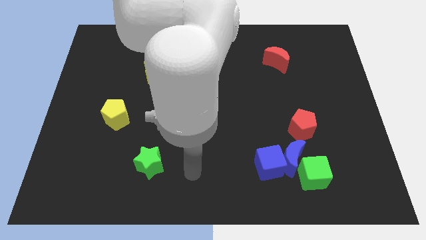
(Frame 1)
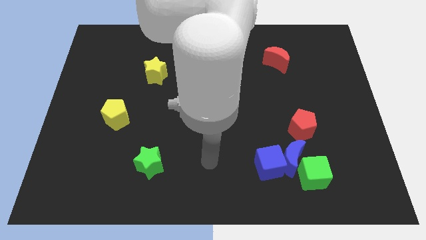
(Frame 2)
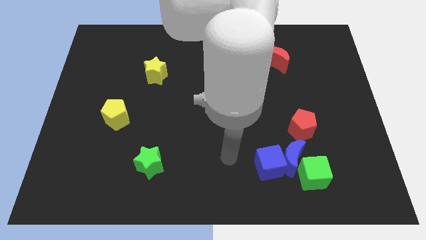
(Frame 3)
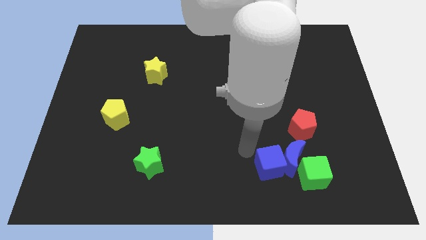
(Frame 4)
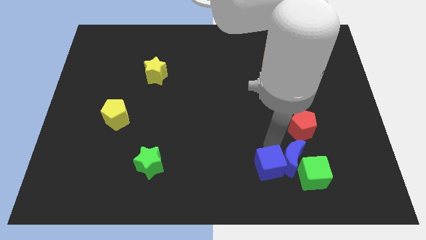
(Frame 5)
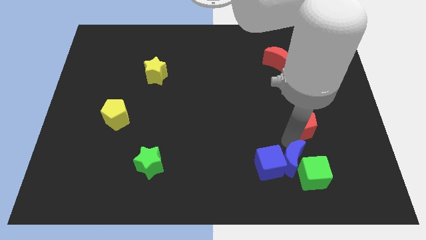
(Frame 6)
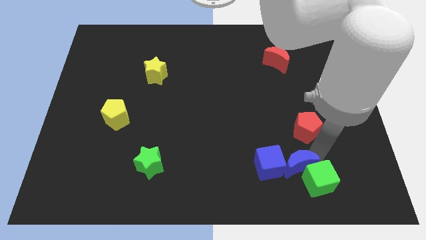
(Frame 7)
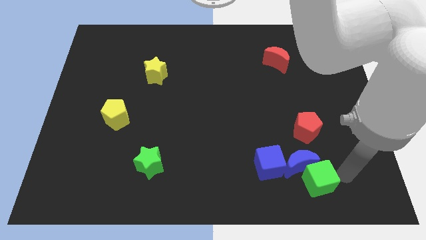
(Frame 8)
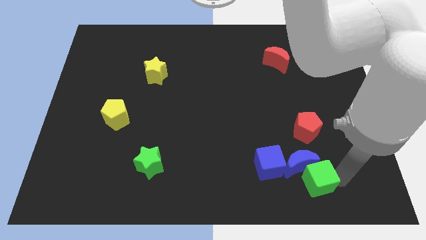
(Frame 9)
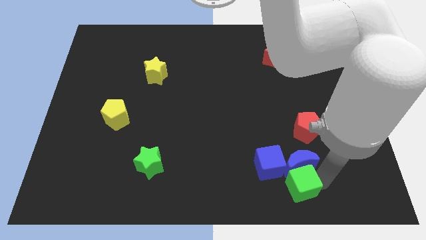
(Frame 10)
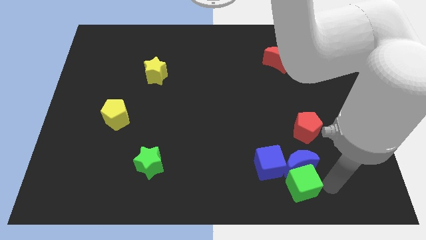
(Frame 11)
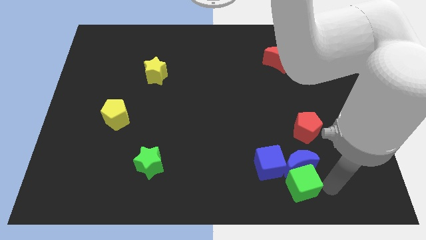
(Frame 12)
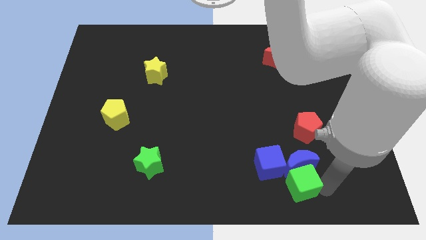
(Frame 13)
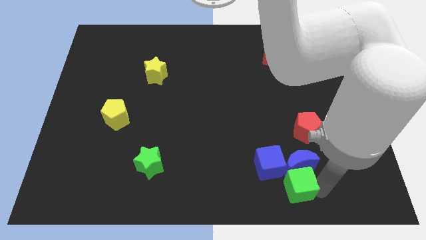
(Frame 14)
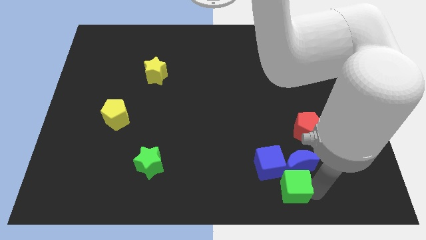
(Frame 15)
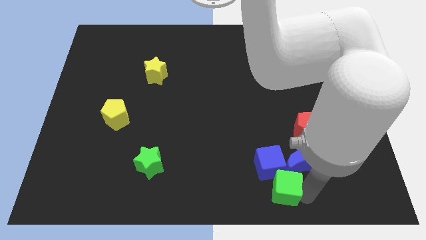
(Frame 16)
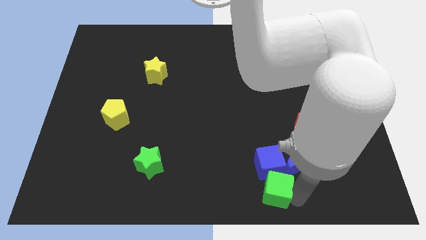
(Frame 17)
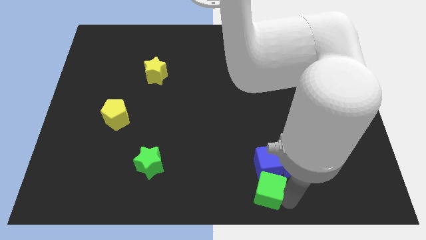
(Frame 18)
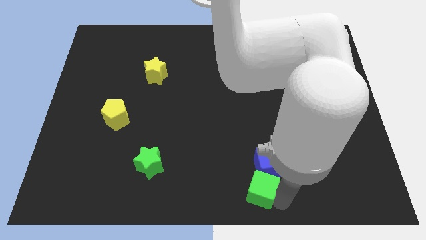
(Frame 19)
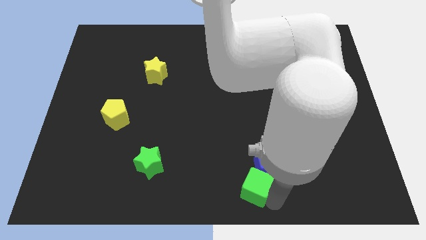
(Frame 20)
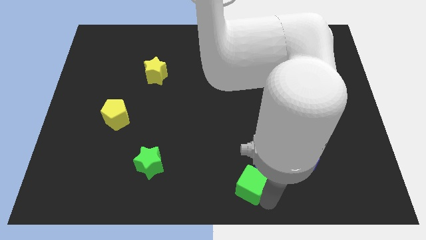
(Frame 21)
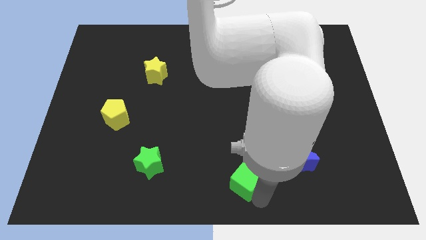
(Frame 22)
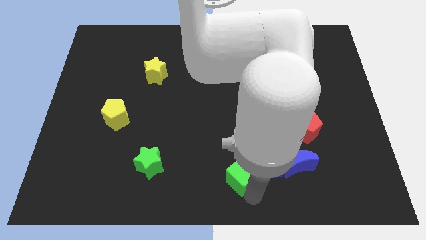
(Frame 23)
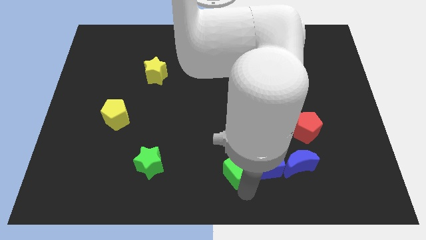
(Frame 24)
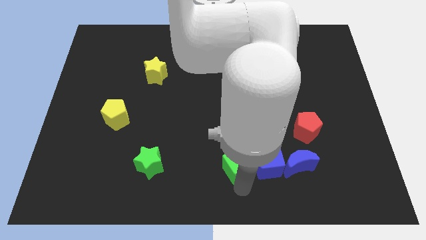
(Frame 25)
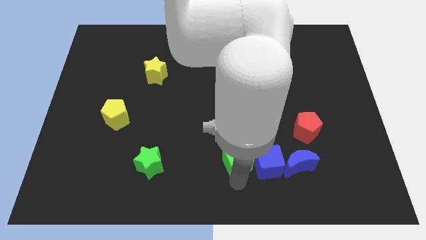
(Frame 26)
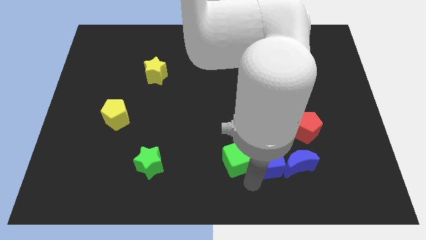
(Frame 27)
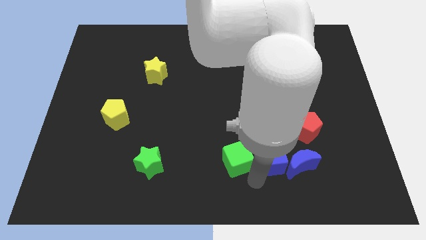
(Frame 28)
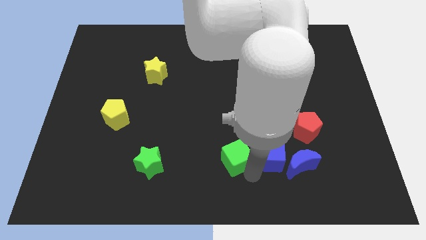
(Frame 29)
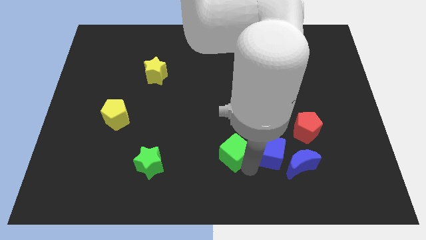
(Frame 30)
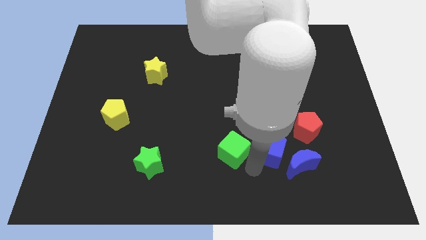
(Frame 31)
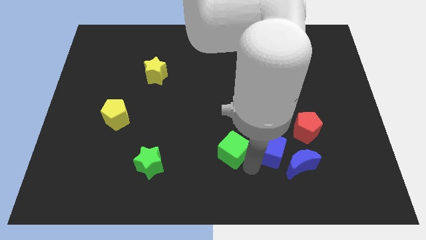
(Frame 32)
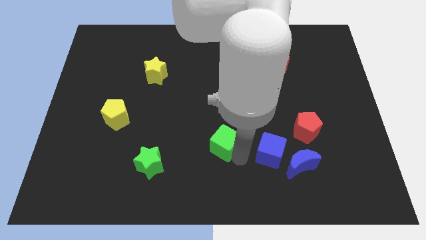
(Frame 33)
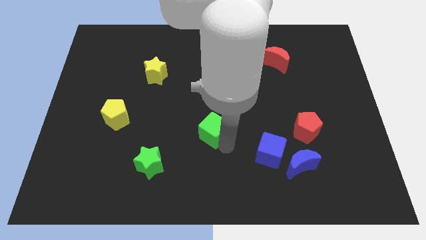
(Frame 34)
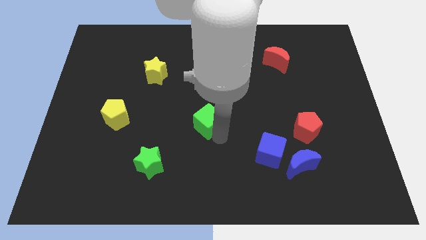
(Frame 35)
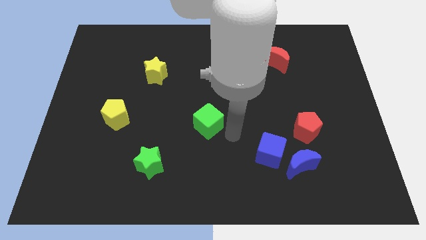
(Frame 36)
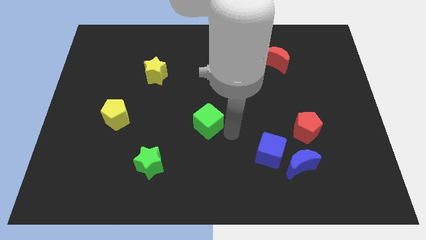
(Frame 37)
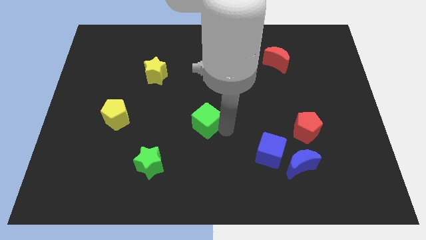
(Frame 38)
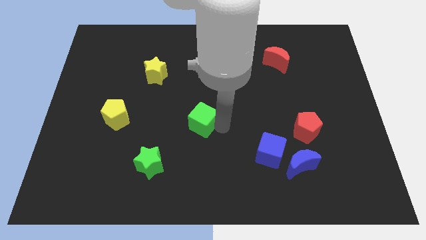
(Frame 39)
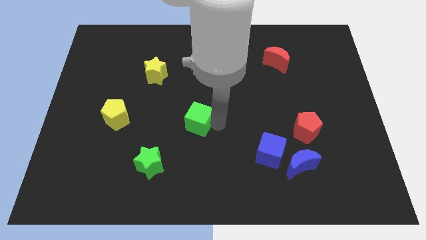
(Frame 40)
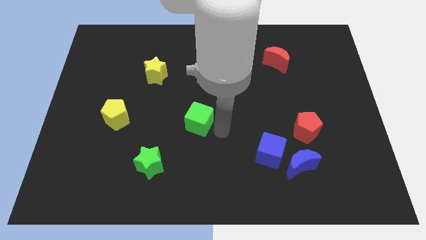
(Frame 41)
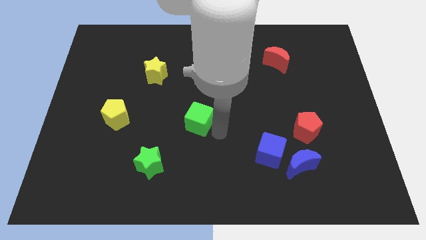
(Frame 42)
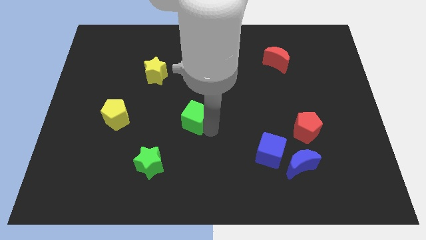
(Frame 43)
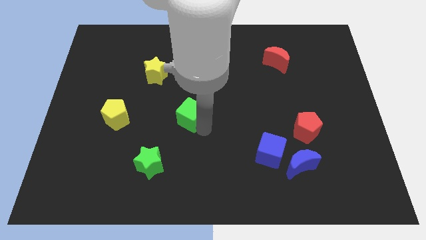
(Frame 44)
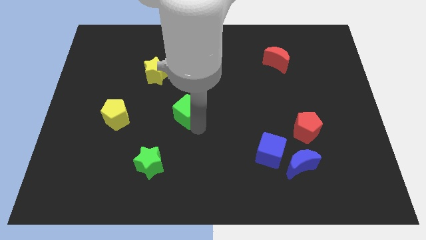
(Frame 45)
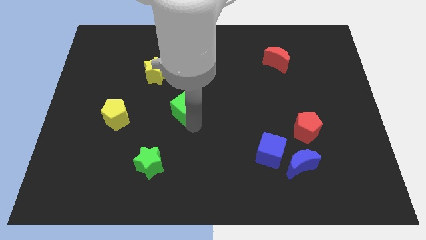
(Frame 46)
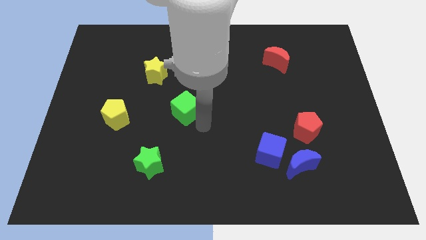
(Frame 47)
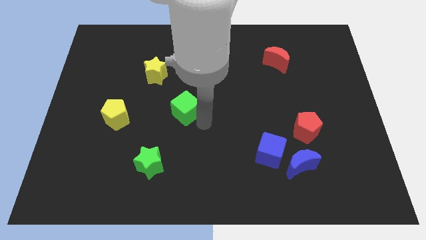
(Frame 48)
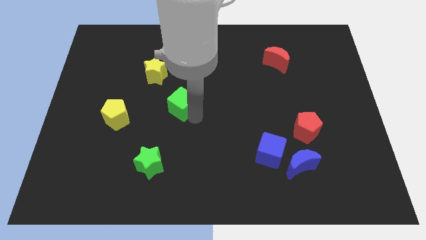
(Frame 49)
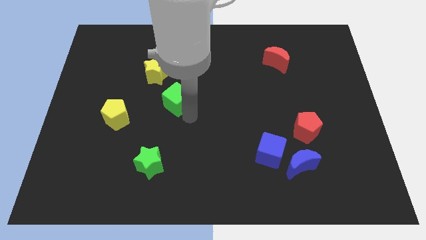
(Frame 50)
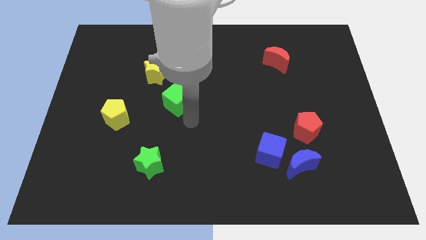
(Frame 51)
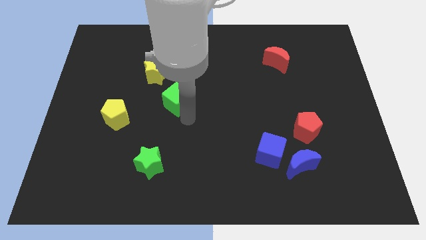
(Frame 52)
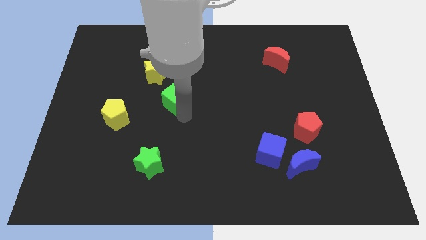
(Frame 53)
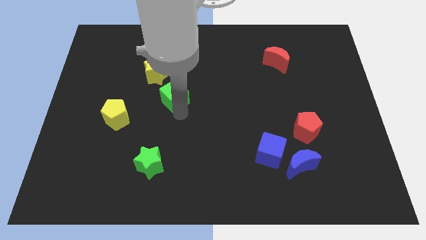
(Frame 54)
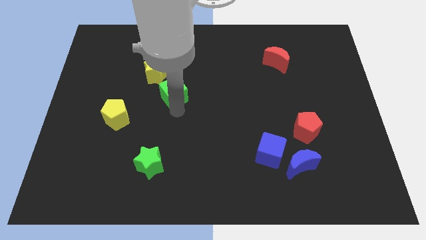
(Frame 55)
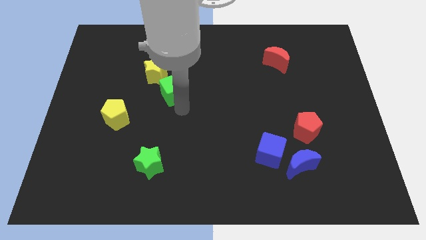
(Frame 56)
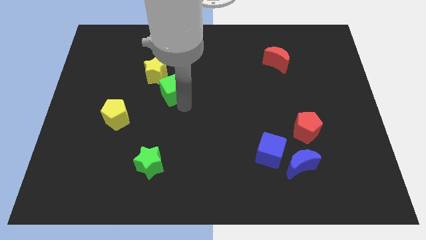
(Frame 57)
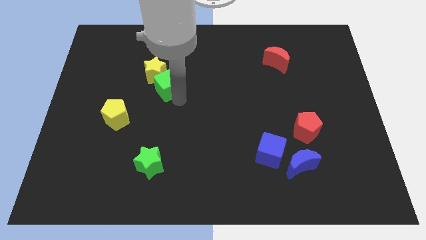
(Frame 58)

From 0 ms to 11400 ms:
put the green cube to the yellow star

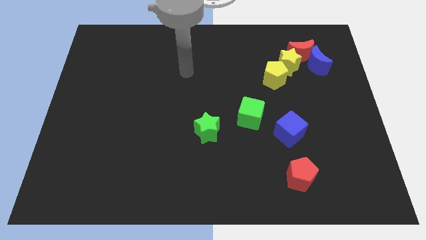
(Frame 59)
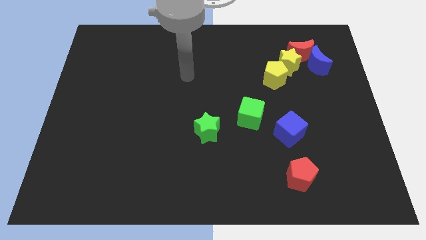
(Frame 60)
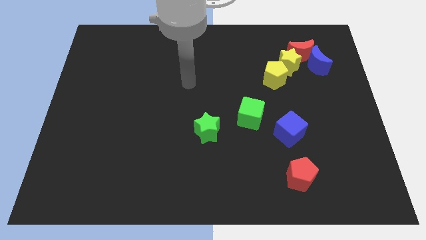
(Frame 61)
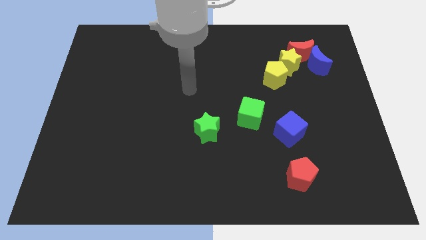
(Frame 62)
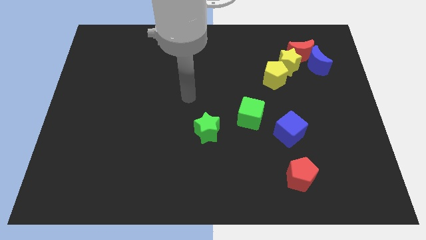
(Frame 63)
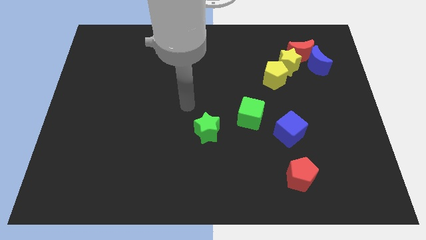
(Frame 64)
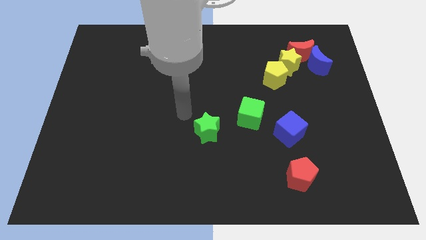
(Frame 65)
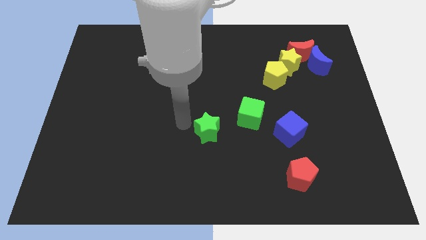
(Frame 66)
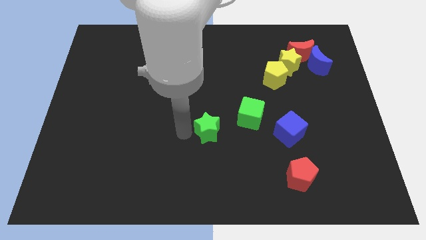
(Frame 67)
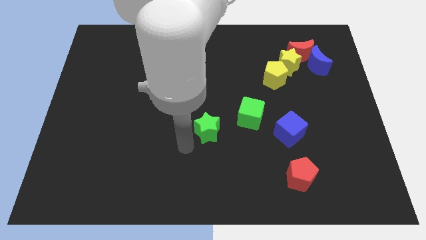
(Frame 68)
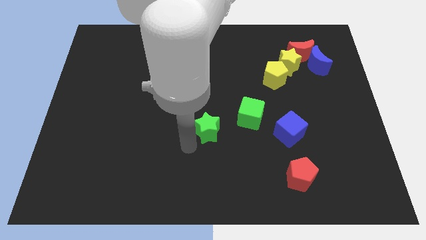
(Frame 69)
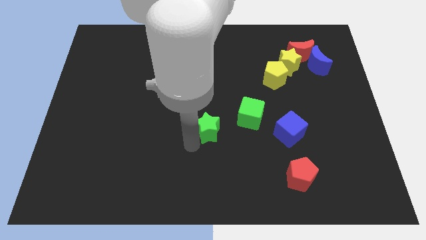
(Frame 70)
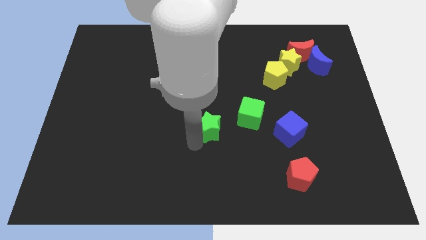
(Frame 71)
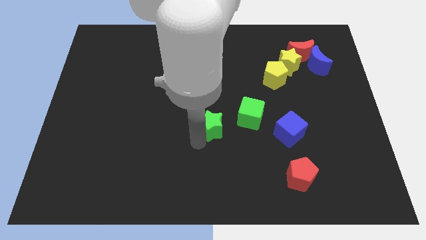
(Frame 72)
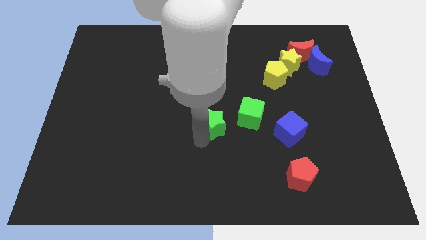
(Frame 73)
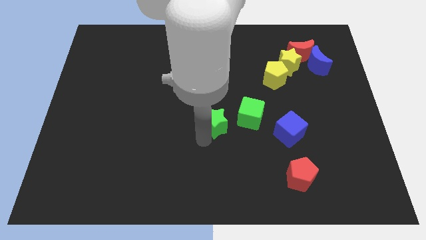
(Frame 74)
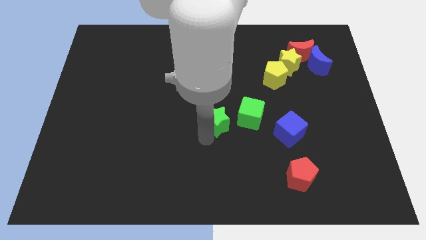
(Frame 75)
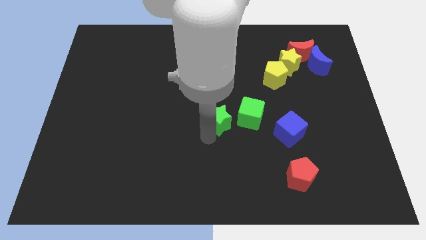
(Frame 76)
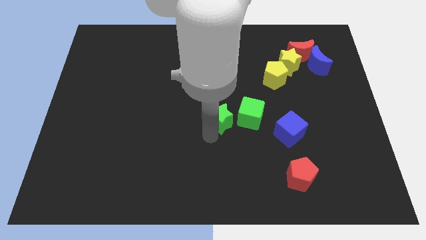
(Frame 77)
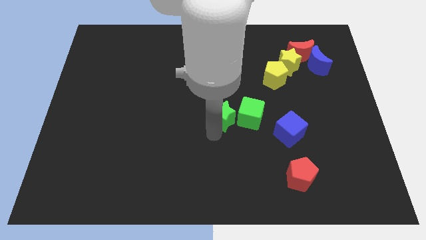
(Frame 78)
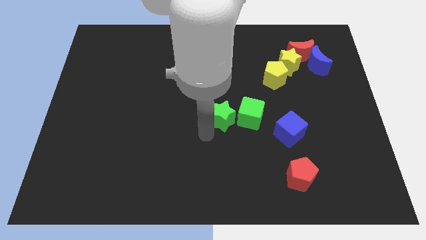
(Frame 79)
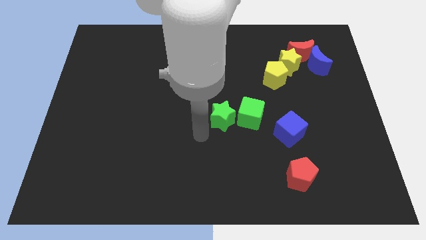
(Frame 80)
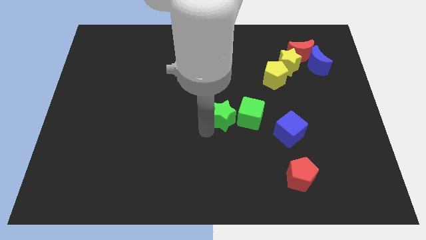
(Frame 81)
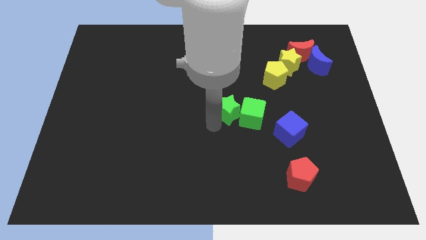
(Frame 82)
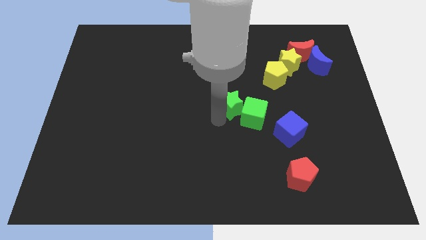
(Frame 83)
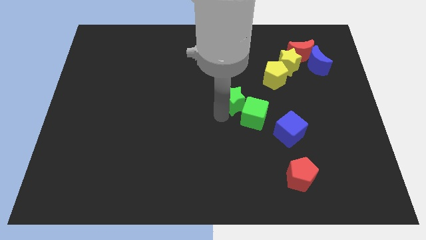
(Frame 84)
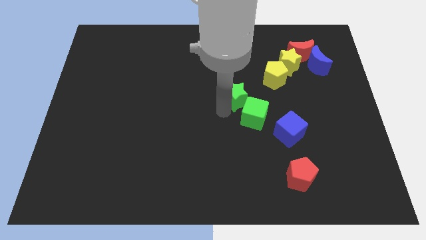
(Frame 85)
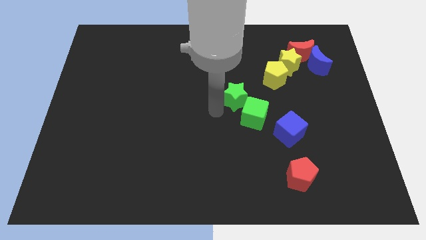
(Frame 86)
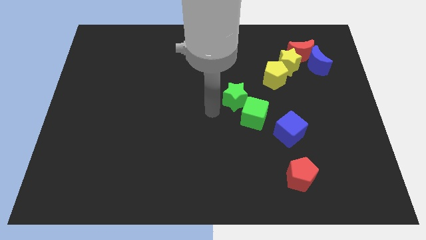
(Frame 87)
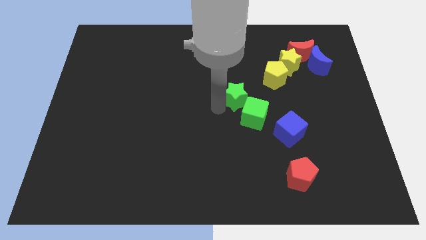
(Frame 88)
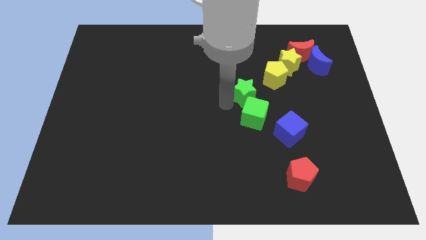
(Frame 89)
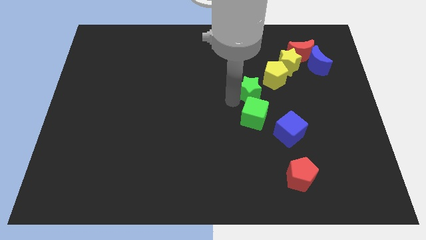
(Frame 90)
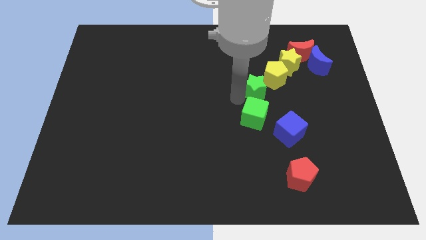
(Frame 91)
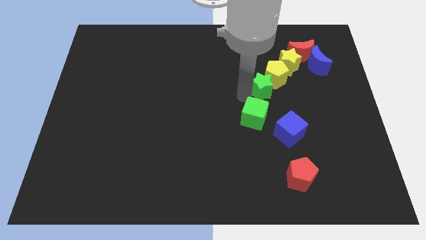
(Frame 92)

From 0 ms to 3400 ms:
put the green star to the yellow pentagon
